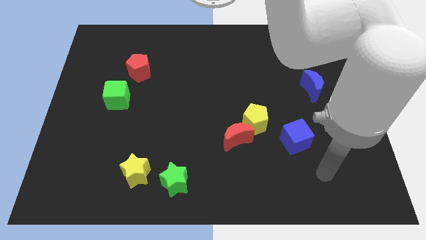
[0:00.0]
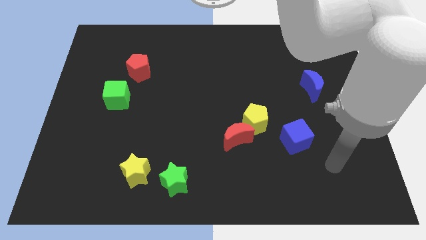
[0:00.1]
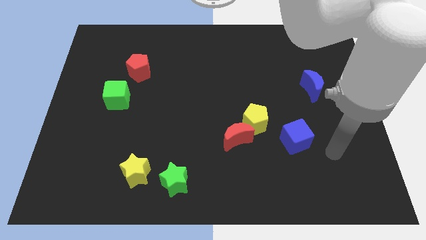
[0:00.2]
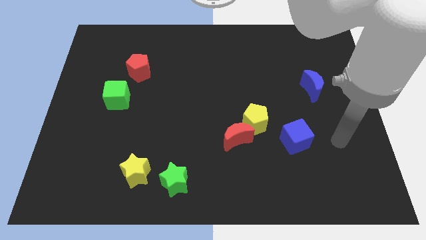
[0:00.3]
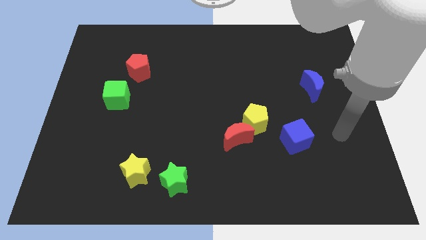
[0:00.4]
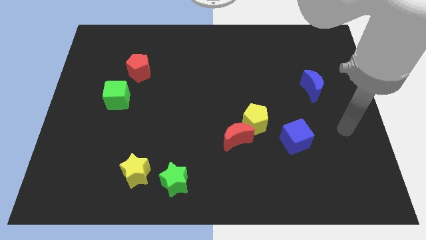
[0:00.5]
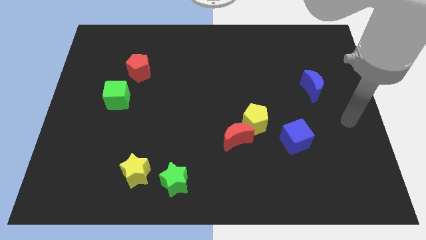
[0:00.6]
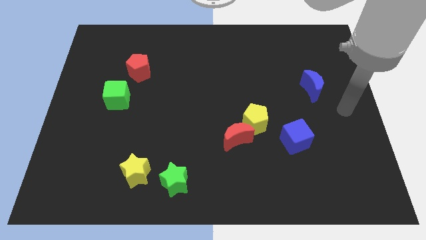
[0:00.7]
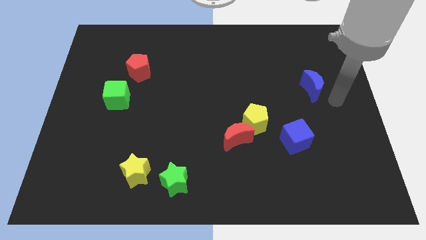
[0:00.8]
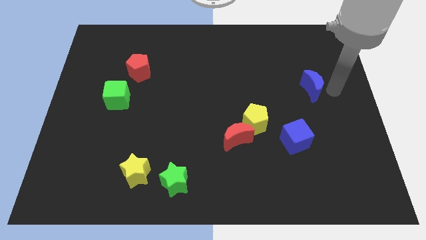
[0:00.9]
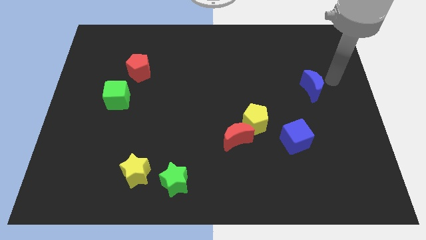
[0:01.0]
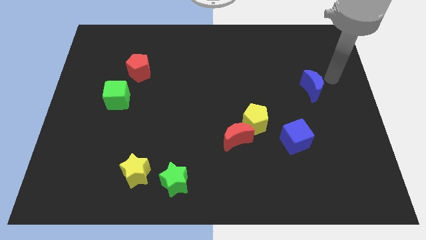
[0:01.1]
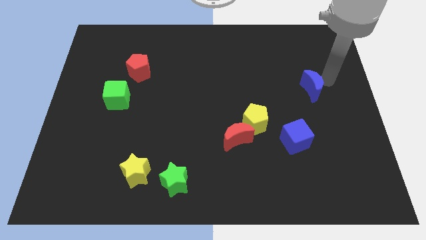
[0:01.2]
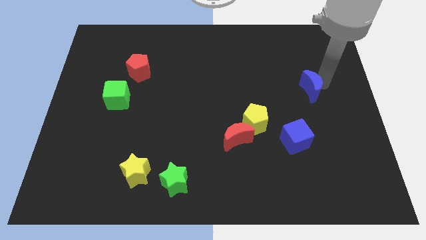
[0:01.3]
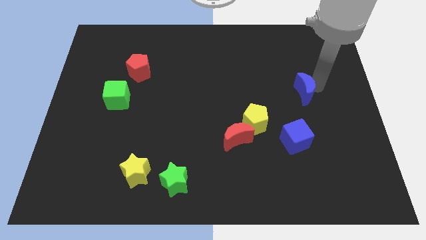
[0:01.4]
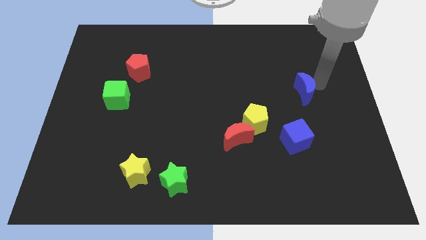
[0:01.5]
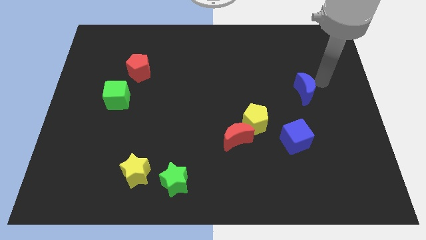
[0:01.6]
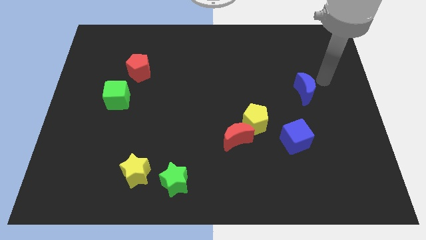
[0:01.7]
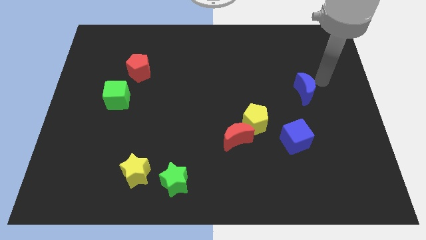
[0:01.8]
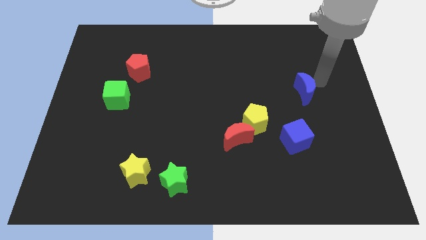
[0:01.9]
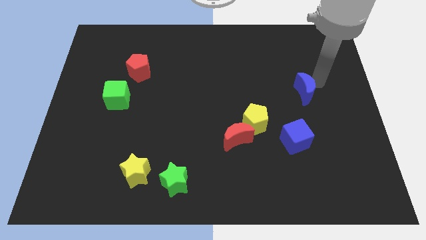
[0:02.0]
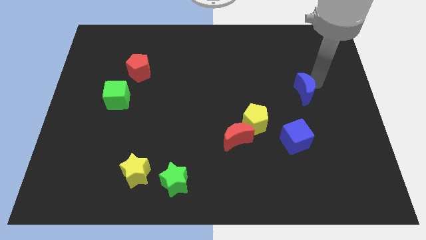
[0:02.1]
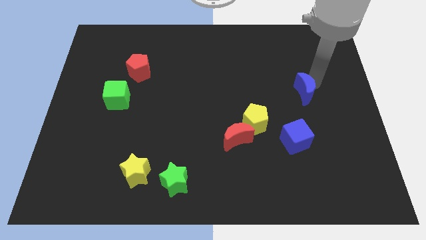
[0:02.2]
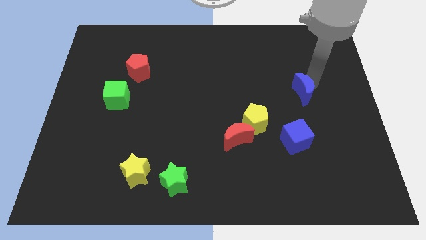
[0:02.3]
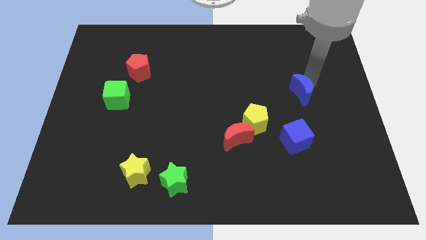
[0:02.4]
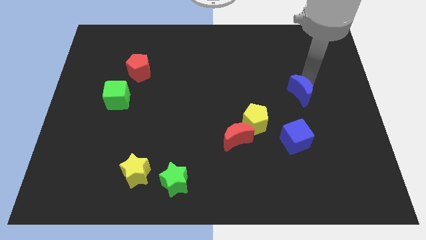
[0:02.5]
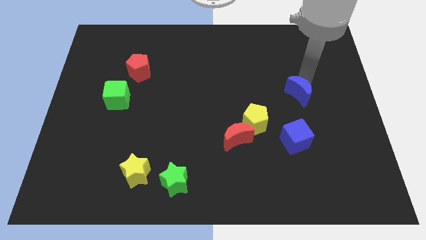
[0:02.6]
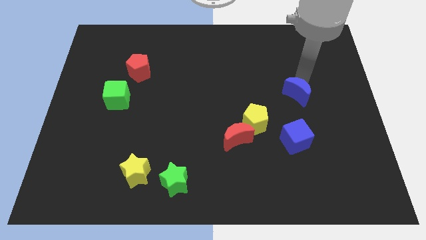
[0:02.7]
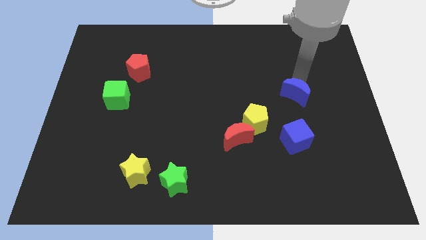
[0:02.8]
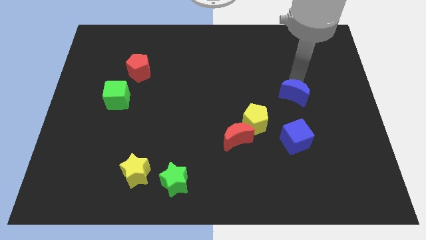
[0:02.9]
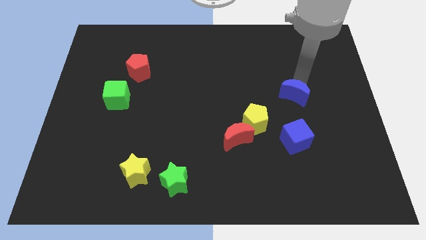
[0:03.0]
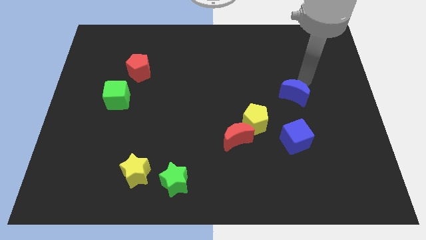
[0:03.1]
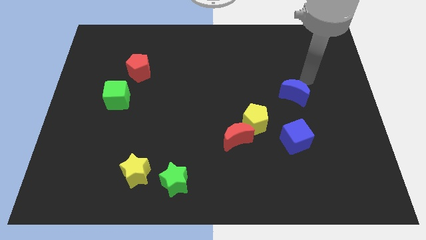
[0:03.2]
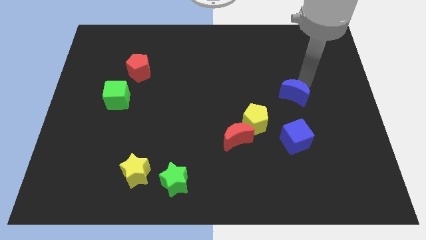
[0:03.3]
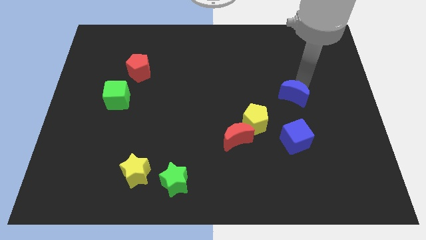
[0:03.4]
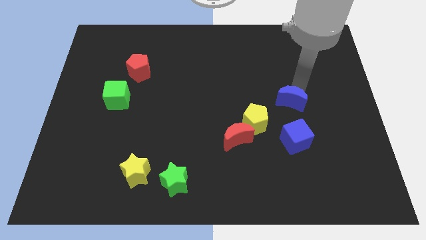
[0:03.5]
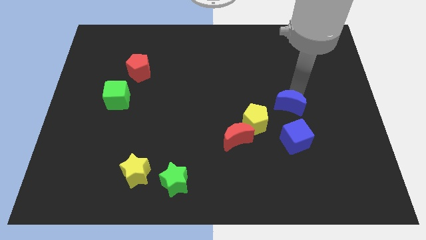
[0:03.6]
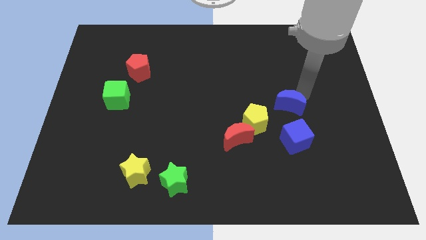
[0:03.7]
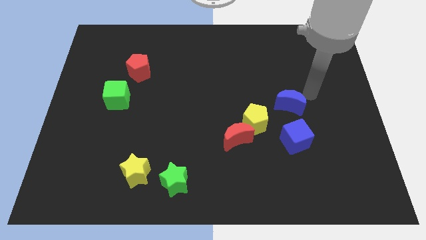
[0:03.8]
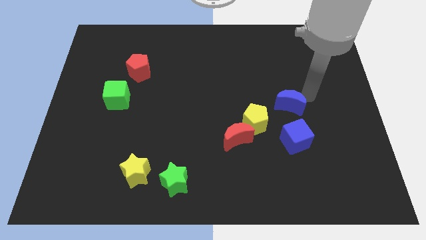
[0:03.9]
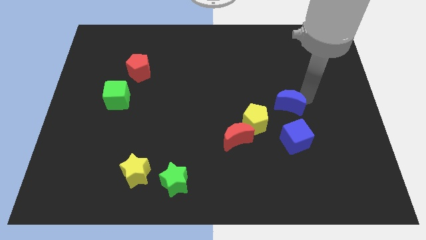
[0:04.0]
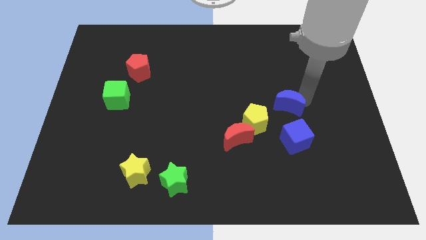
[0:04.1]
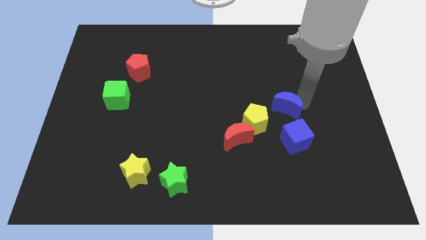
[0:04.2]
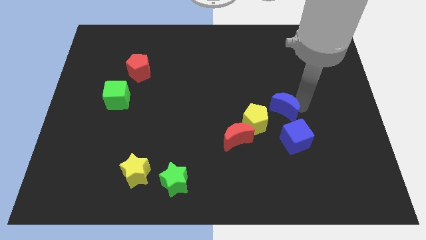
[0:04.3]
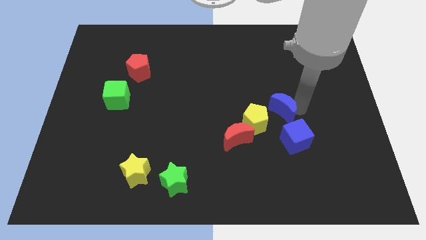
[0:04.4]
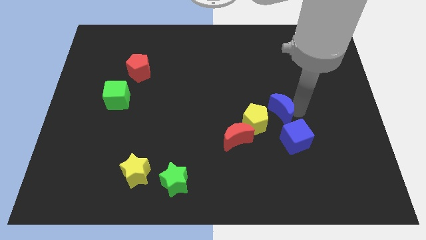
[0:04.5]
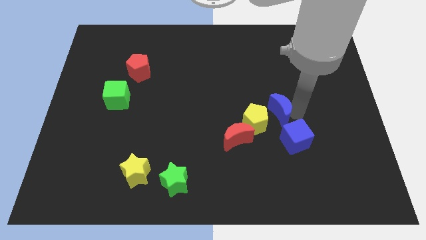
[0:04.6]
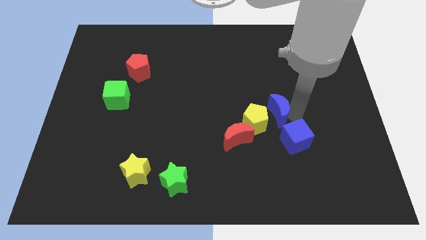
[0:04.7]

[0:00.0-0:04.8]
move the blue moon towards the yellow pentagon

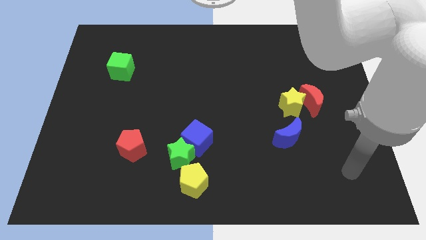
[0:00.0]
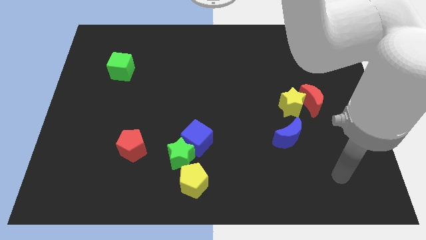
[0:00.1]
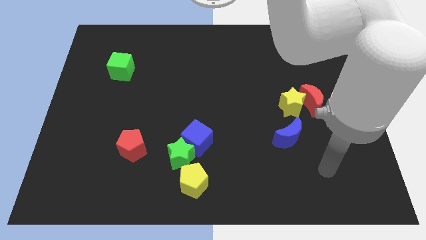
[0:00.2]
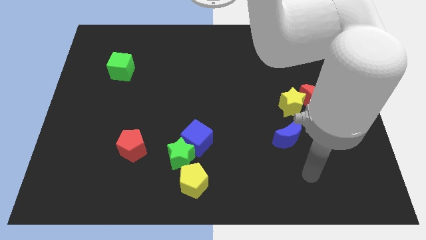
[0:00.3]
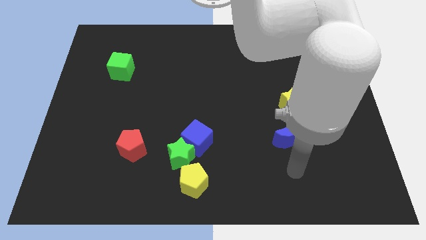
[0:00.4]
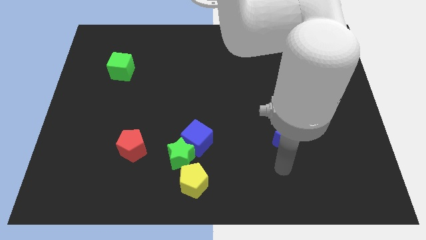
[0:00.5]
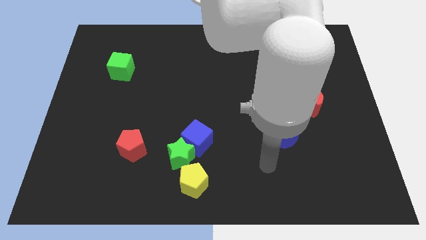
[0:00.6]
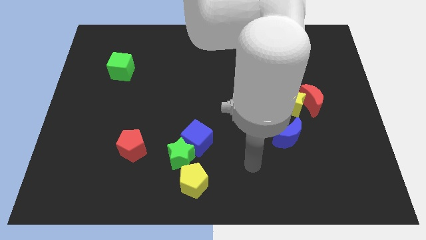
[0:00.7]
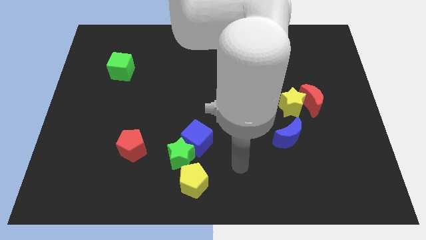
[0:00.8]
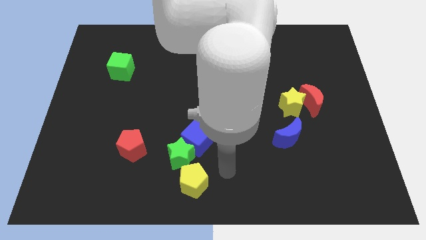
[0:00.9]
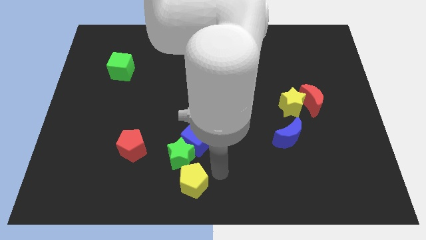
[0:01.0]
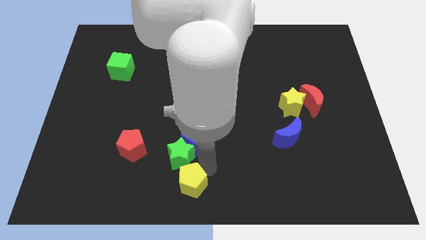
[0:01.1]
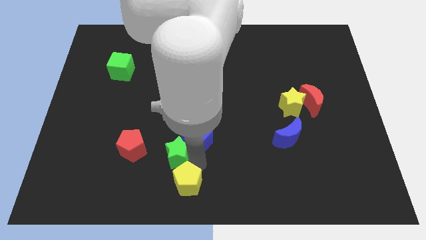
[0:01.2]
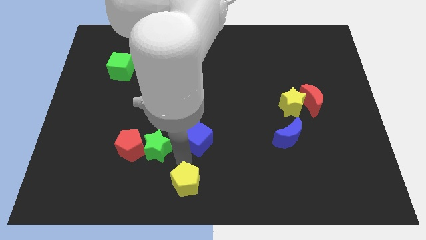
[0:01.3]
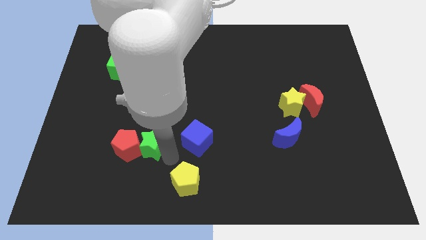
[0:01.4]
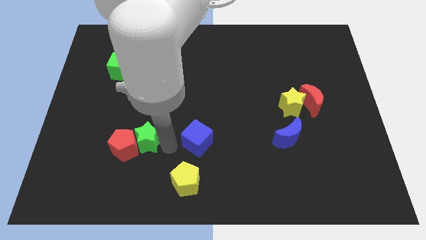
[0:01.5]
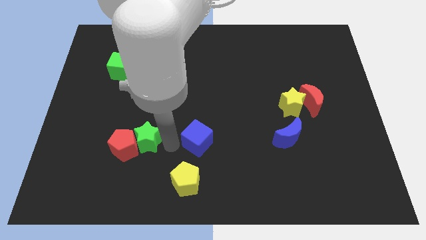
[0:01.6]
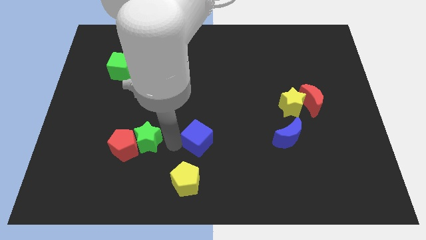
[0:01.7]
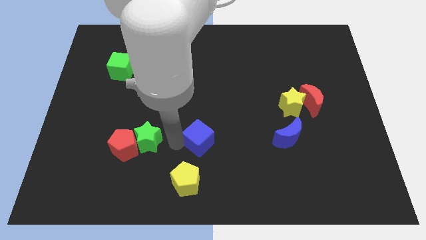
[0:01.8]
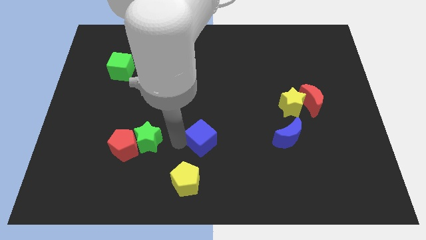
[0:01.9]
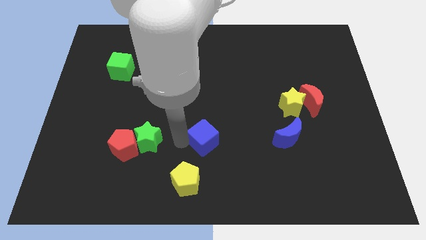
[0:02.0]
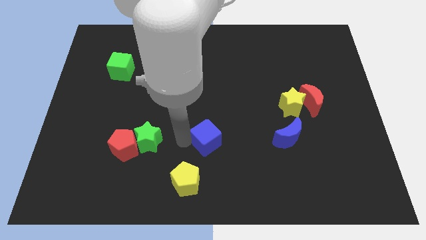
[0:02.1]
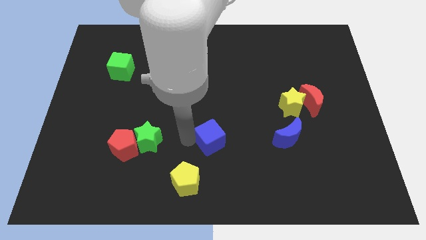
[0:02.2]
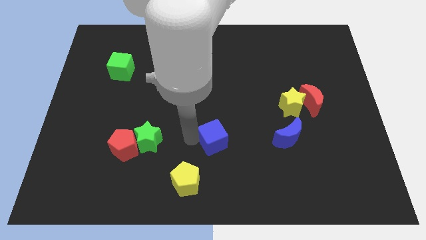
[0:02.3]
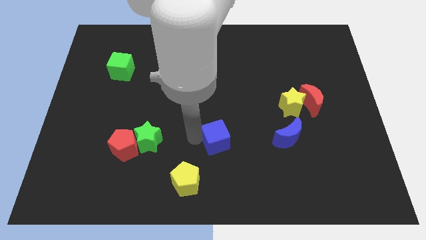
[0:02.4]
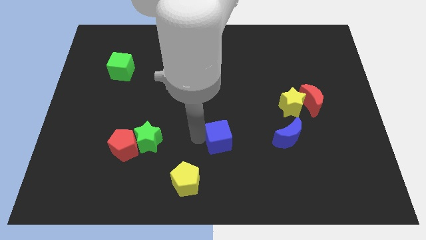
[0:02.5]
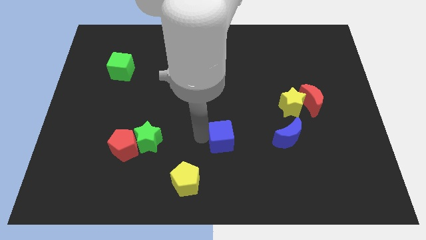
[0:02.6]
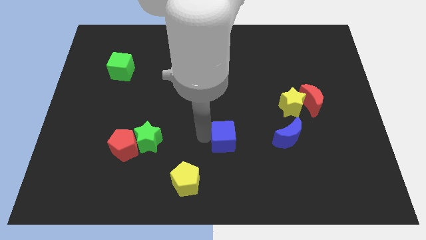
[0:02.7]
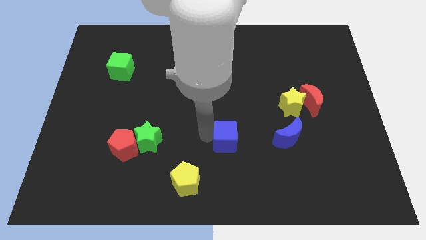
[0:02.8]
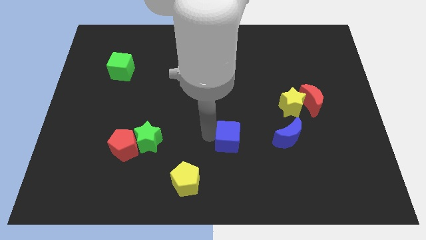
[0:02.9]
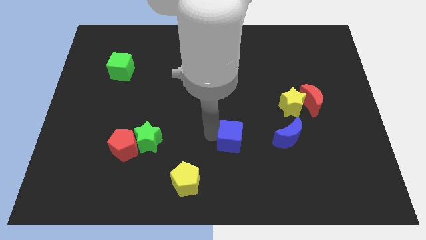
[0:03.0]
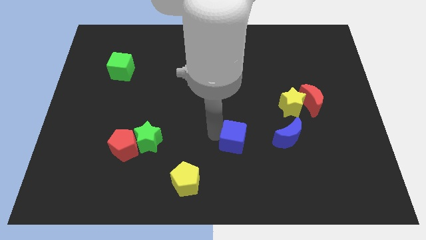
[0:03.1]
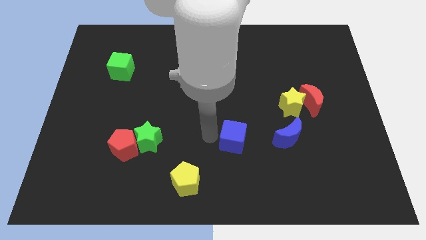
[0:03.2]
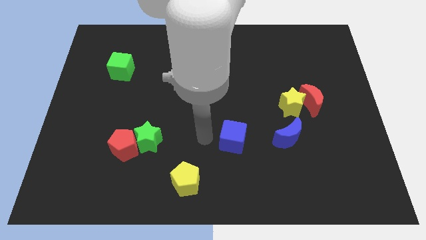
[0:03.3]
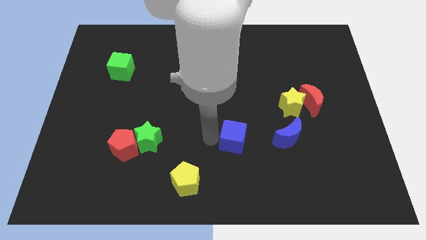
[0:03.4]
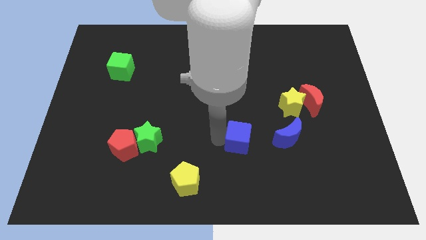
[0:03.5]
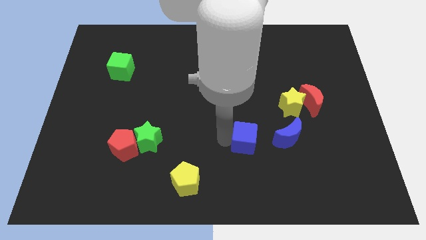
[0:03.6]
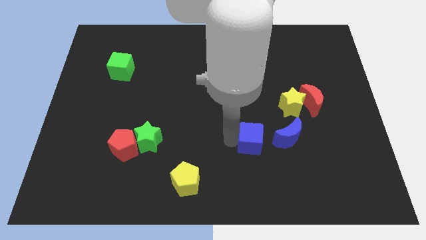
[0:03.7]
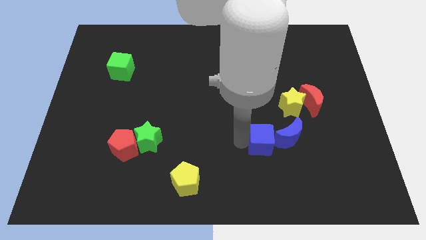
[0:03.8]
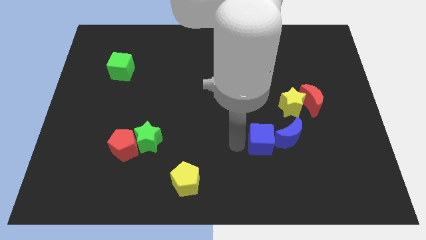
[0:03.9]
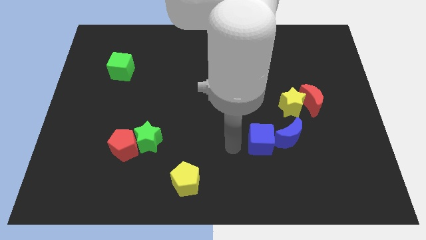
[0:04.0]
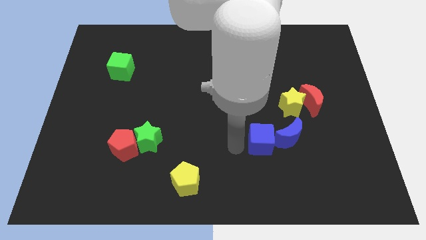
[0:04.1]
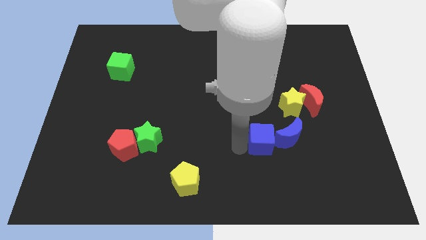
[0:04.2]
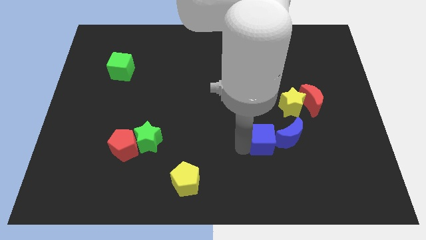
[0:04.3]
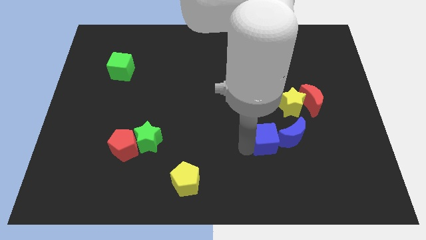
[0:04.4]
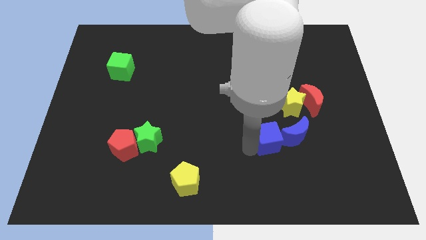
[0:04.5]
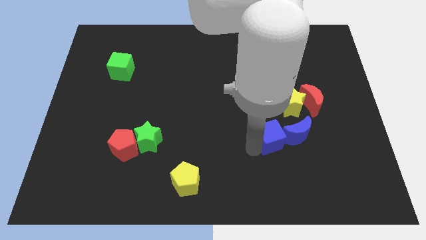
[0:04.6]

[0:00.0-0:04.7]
move the blue cube to the blue moon
